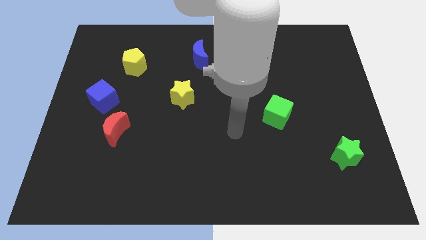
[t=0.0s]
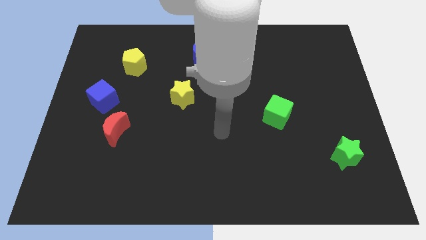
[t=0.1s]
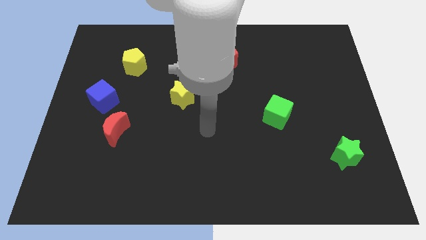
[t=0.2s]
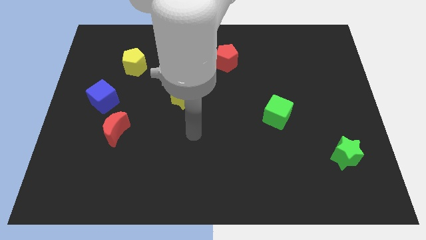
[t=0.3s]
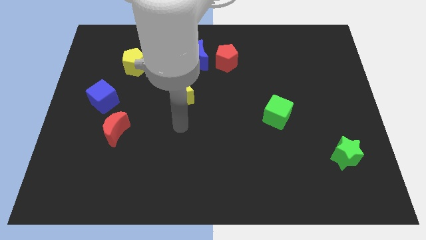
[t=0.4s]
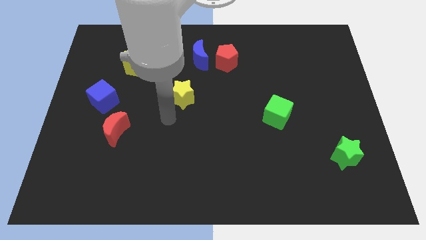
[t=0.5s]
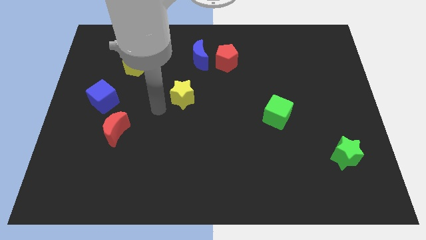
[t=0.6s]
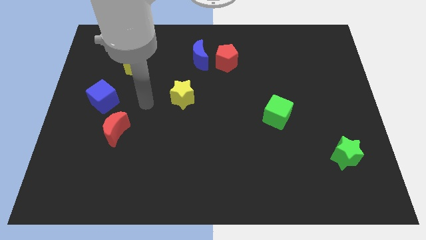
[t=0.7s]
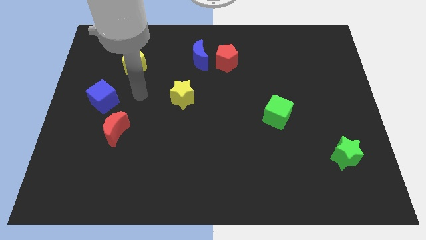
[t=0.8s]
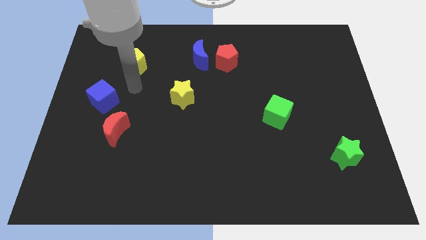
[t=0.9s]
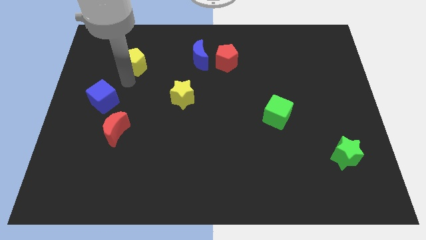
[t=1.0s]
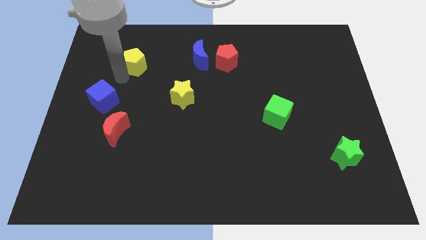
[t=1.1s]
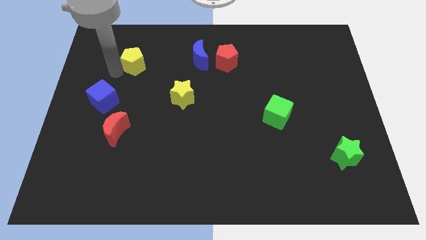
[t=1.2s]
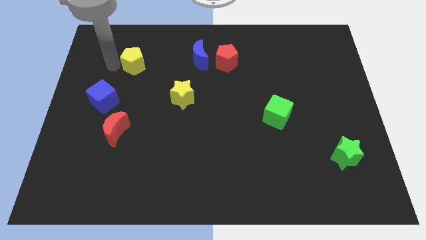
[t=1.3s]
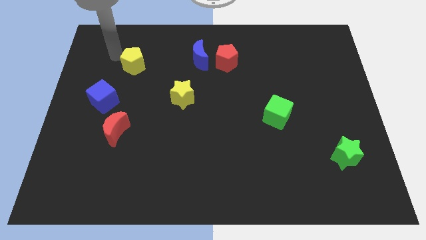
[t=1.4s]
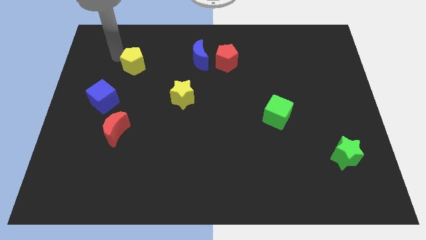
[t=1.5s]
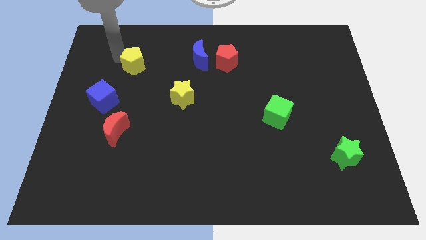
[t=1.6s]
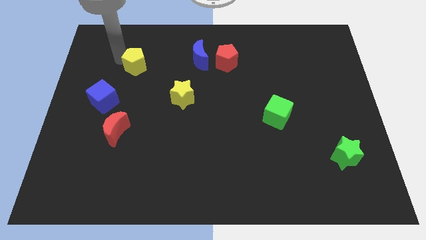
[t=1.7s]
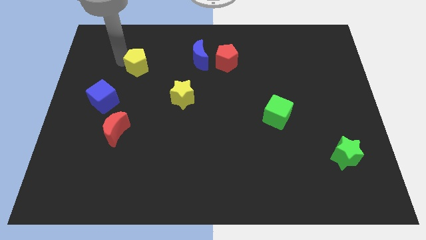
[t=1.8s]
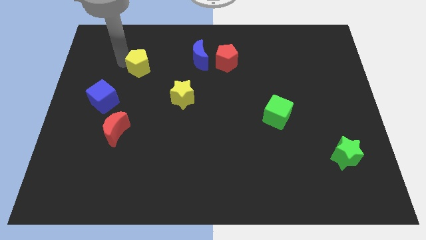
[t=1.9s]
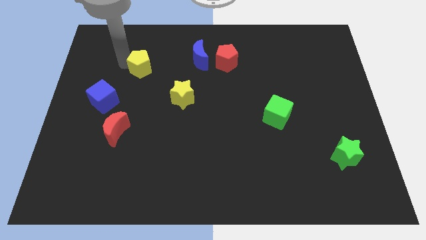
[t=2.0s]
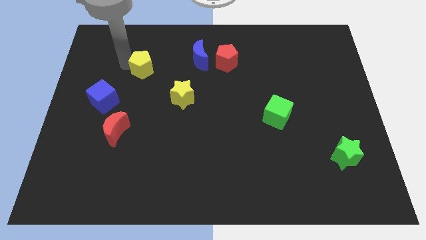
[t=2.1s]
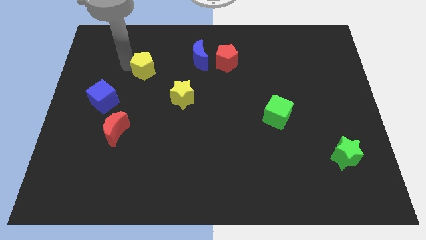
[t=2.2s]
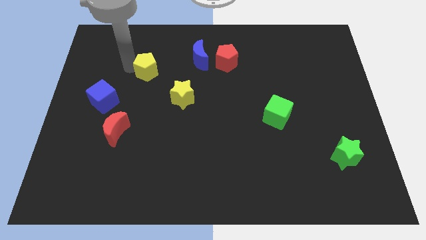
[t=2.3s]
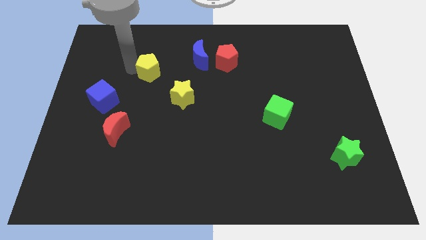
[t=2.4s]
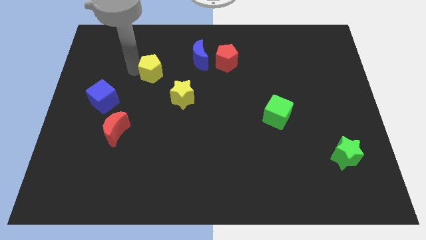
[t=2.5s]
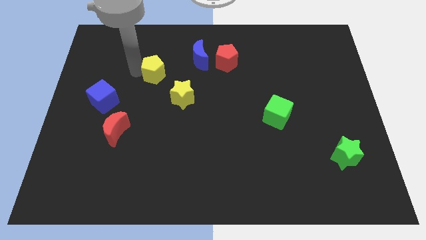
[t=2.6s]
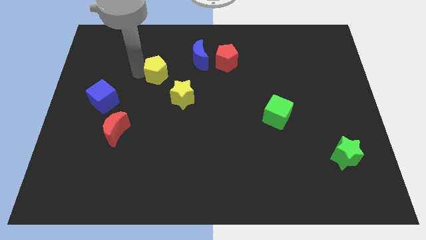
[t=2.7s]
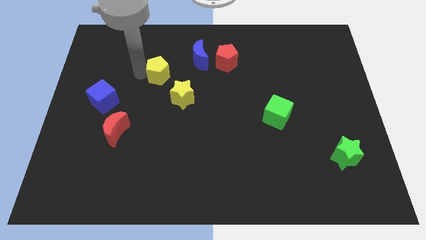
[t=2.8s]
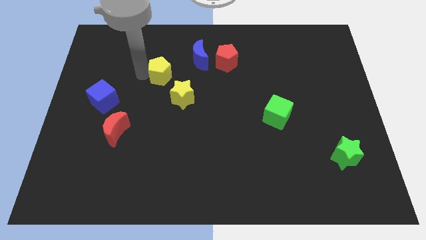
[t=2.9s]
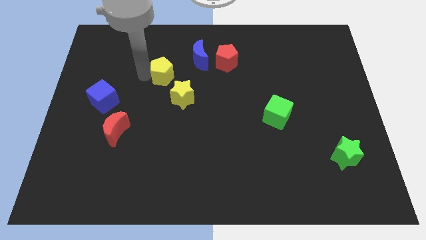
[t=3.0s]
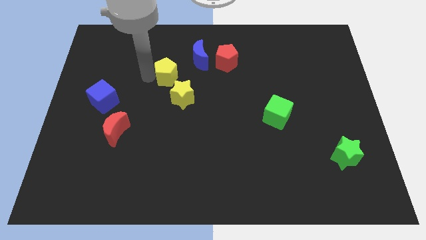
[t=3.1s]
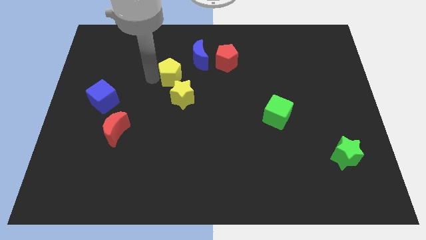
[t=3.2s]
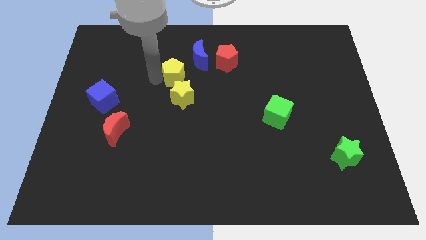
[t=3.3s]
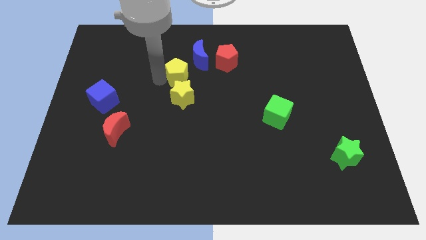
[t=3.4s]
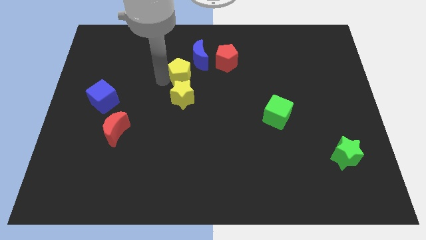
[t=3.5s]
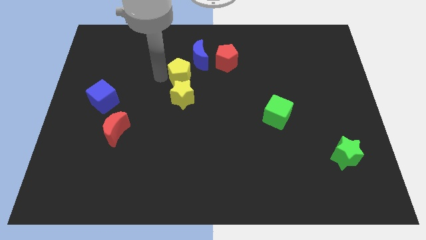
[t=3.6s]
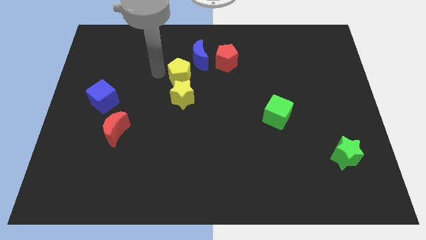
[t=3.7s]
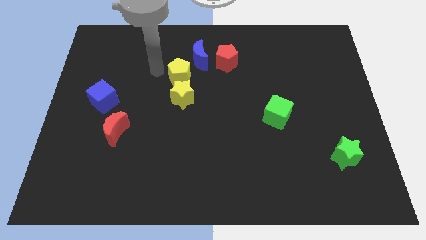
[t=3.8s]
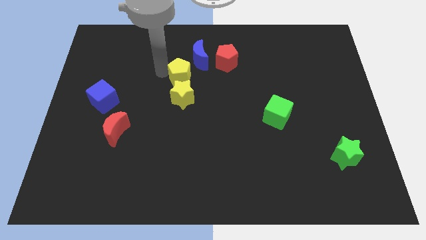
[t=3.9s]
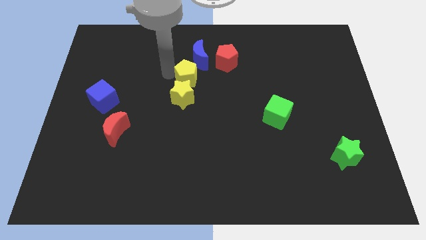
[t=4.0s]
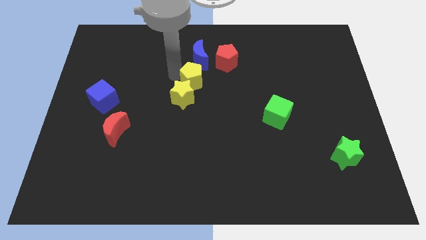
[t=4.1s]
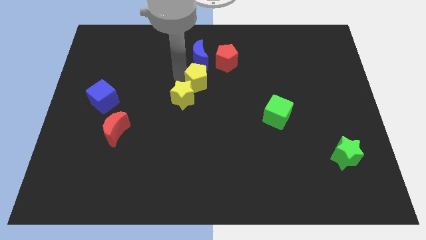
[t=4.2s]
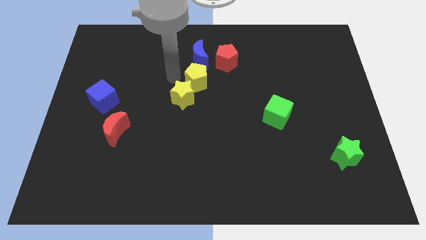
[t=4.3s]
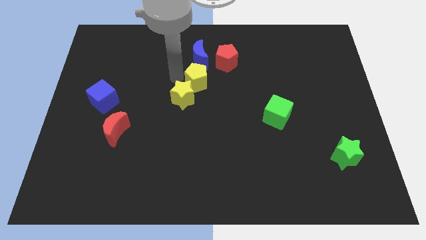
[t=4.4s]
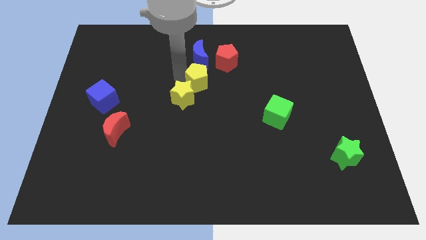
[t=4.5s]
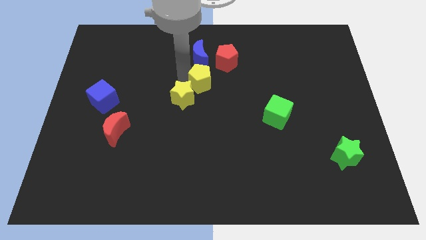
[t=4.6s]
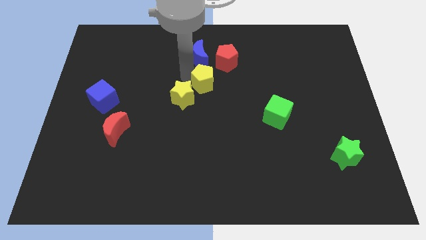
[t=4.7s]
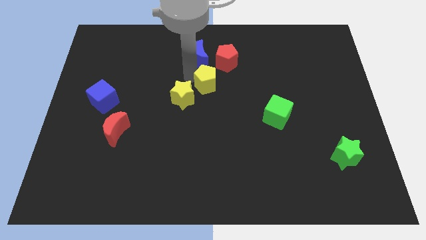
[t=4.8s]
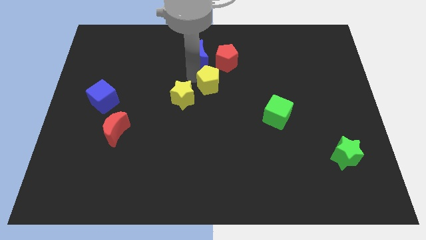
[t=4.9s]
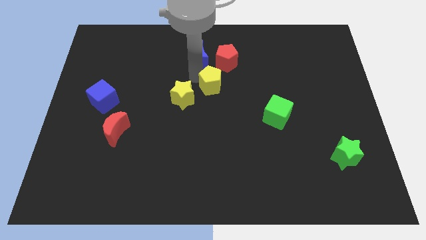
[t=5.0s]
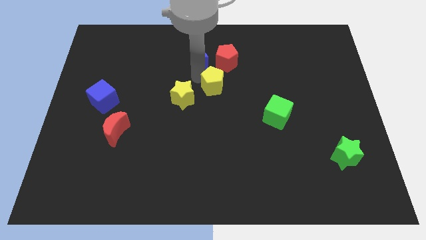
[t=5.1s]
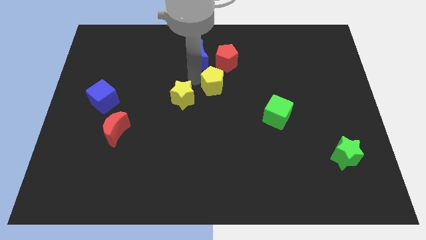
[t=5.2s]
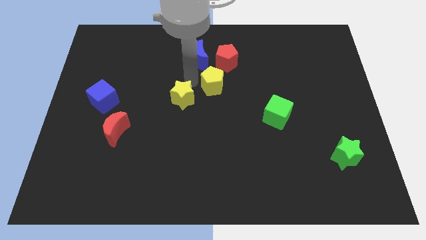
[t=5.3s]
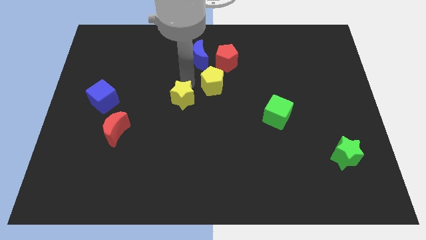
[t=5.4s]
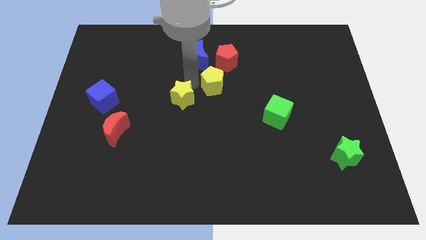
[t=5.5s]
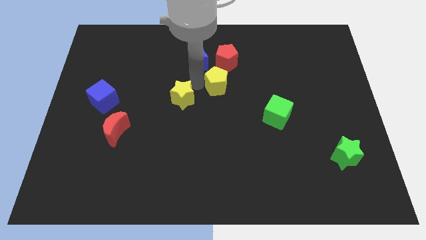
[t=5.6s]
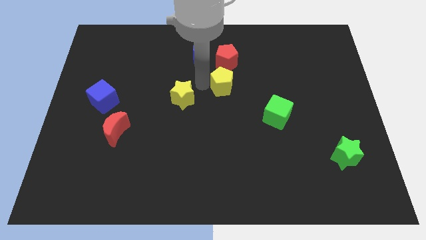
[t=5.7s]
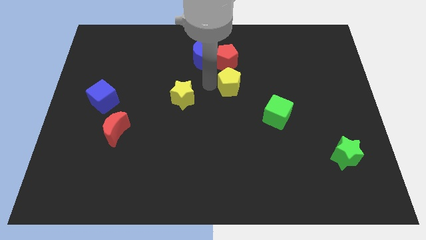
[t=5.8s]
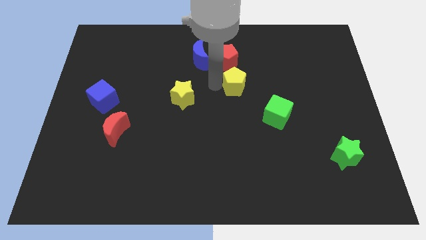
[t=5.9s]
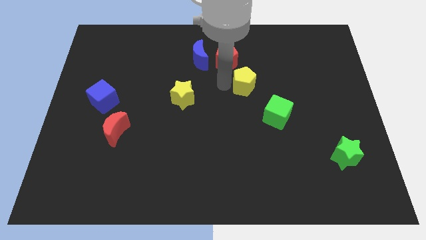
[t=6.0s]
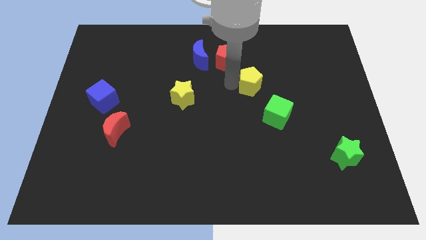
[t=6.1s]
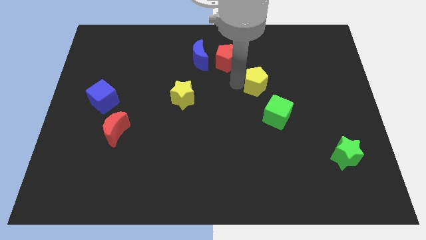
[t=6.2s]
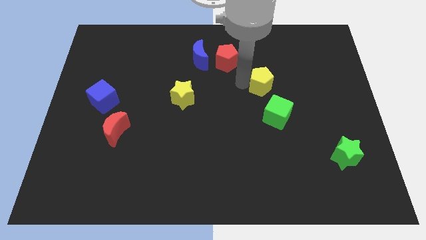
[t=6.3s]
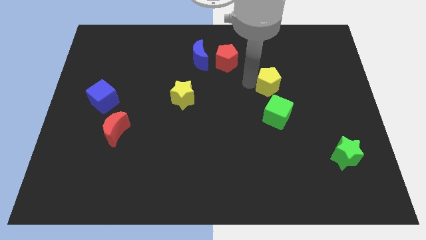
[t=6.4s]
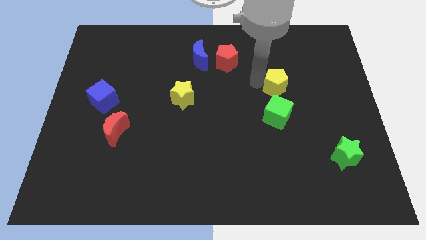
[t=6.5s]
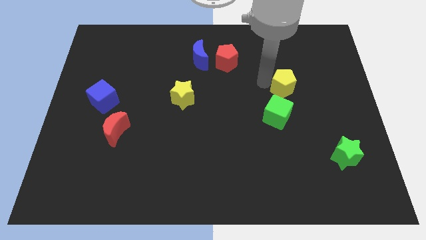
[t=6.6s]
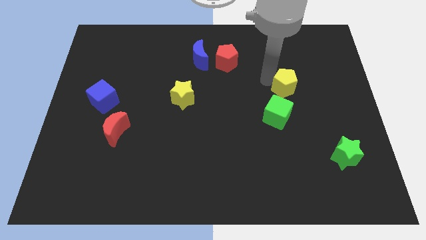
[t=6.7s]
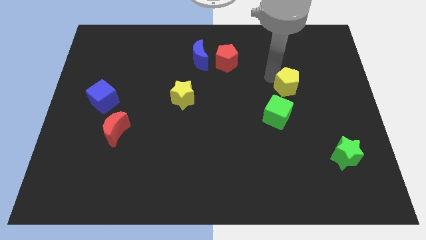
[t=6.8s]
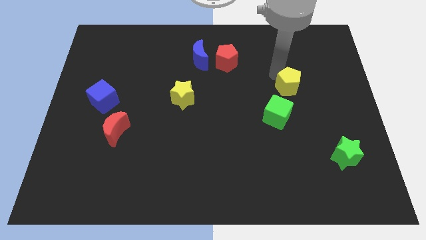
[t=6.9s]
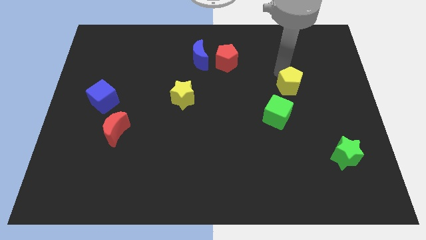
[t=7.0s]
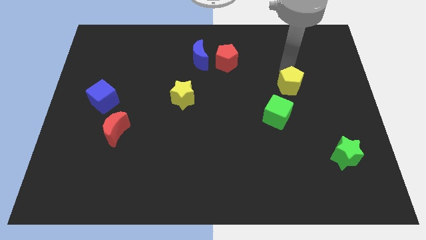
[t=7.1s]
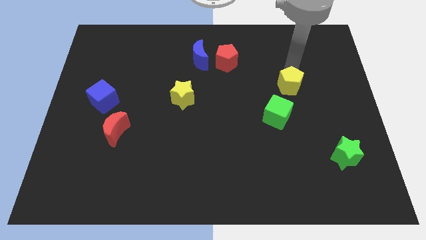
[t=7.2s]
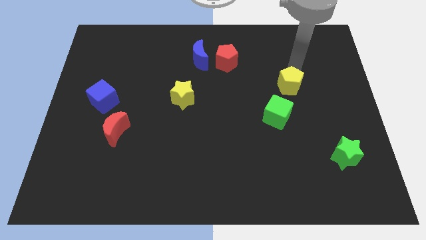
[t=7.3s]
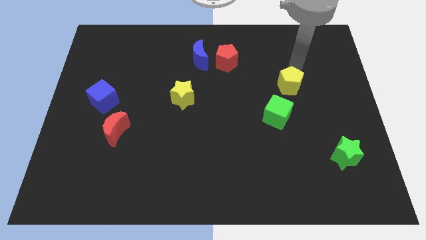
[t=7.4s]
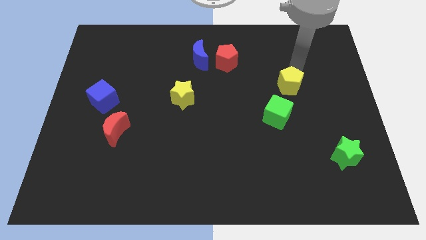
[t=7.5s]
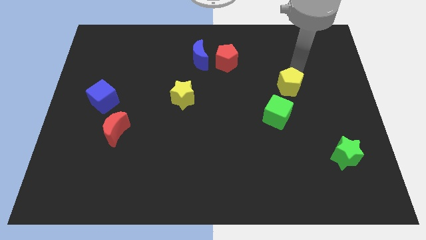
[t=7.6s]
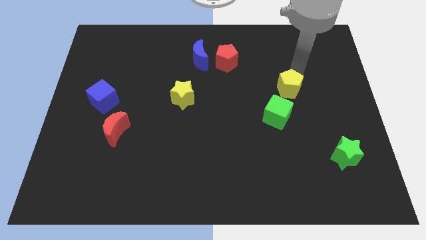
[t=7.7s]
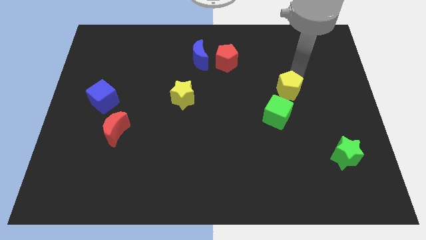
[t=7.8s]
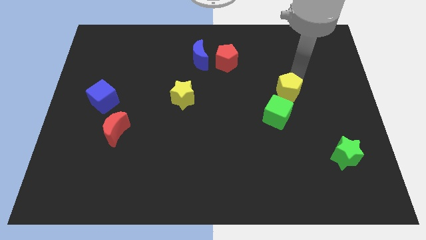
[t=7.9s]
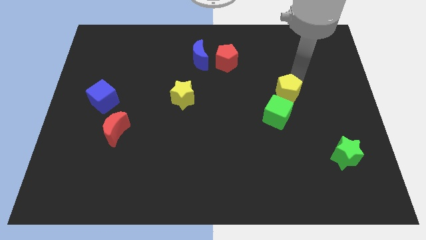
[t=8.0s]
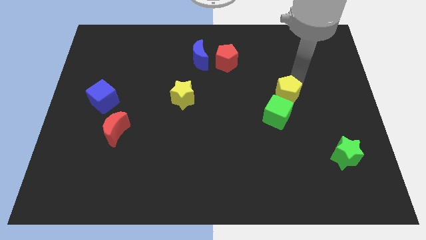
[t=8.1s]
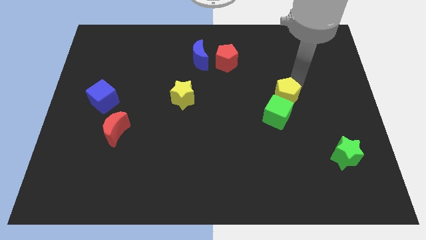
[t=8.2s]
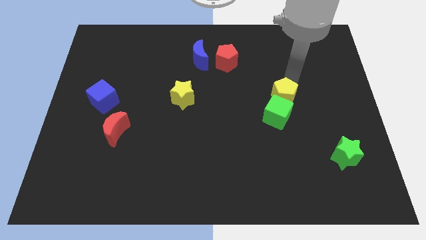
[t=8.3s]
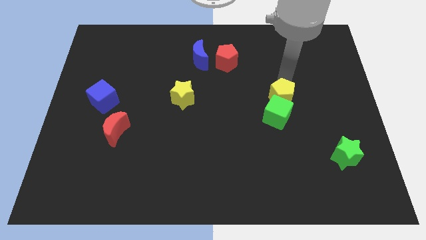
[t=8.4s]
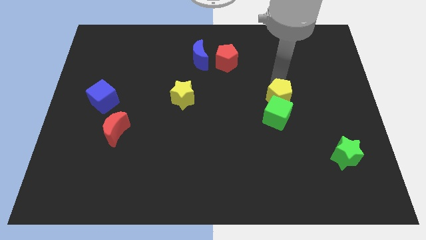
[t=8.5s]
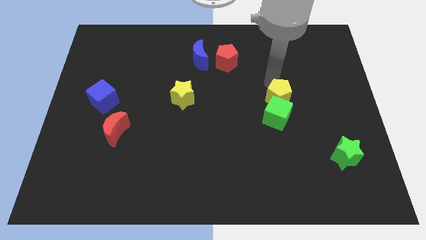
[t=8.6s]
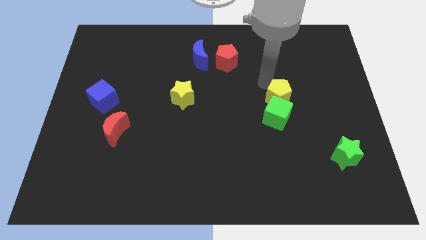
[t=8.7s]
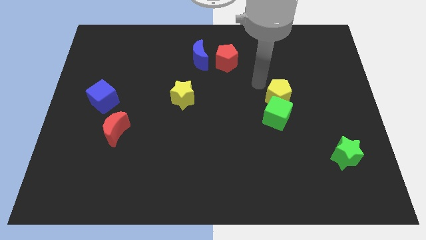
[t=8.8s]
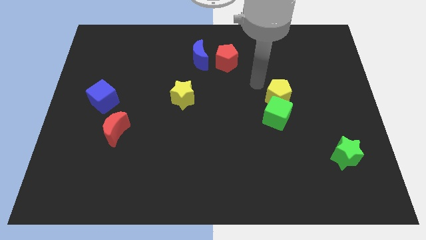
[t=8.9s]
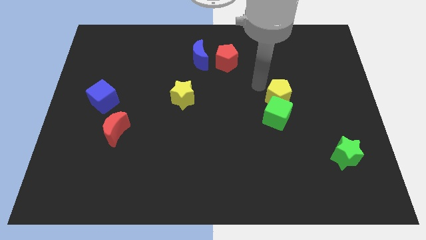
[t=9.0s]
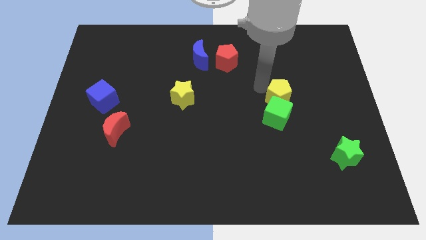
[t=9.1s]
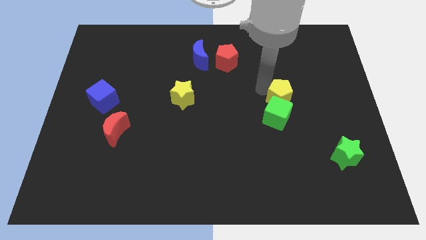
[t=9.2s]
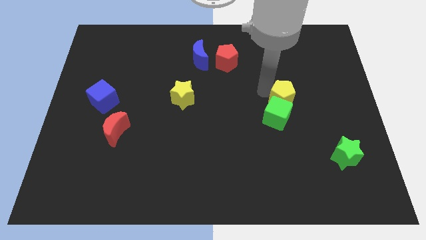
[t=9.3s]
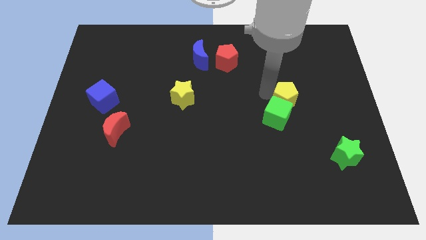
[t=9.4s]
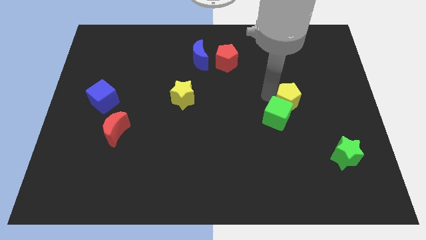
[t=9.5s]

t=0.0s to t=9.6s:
move the yellow pentagon right of the green cube
